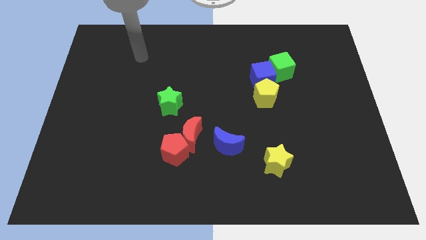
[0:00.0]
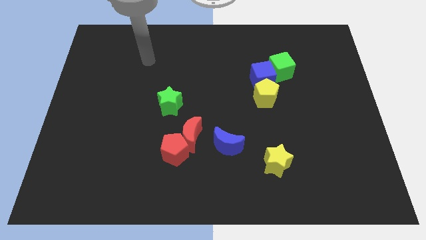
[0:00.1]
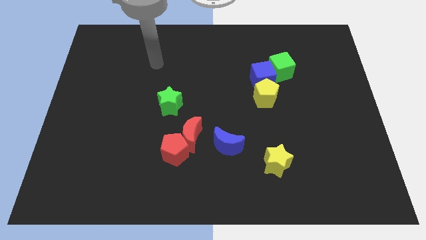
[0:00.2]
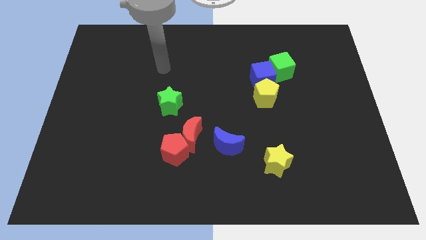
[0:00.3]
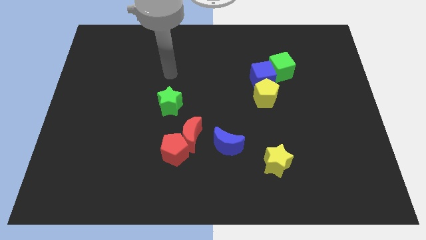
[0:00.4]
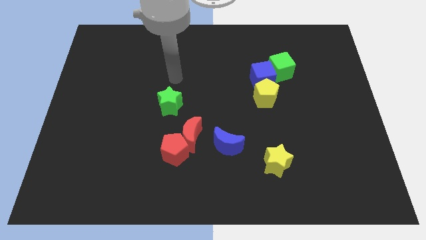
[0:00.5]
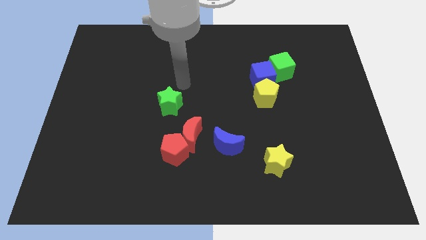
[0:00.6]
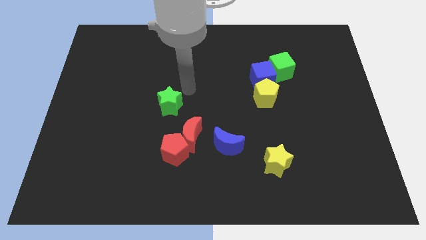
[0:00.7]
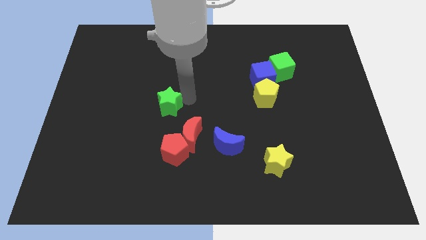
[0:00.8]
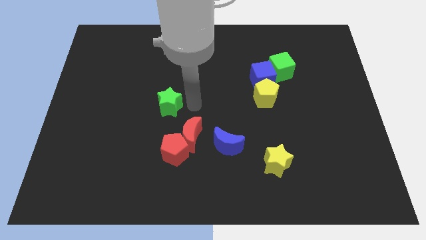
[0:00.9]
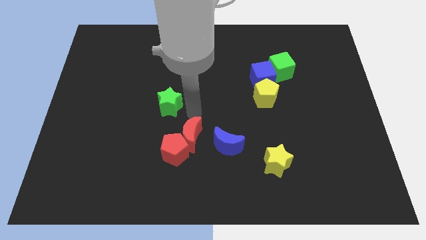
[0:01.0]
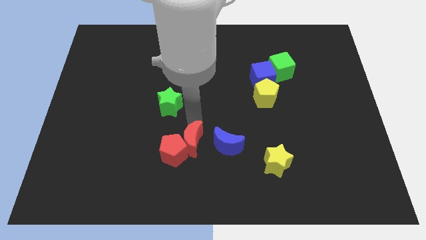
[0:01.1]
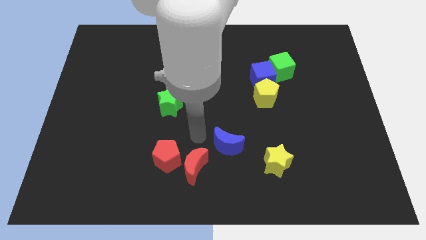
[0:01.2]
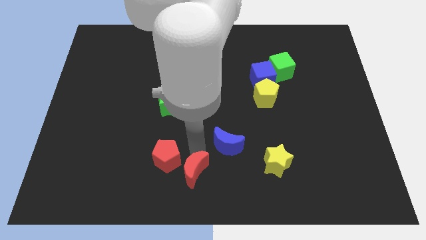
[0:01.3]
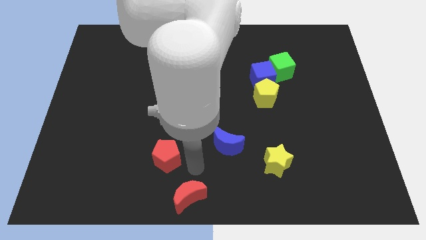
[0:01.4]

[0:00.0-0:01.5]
separate the red pentagon from the red moon

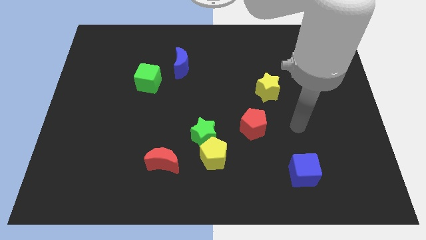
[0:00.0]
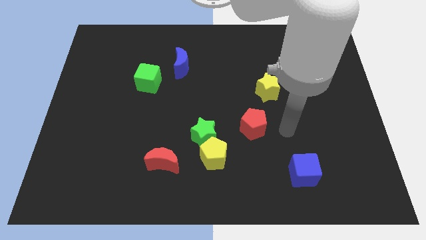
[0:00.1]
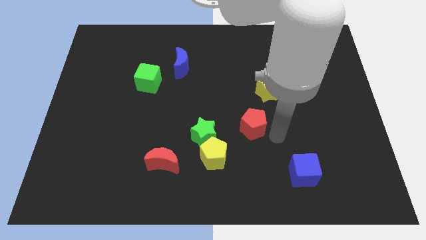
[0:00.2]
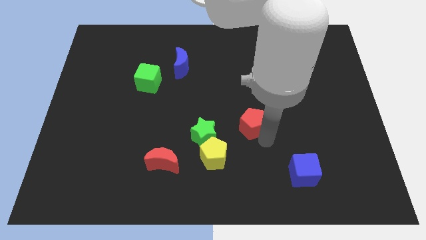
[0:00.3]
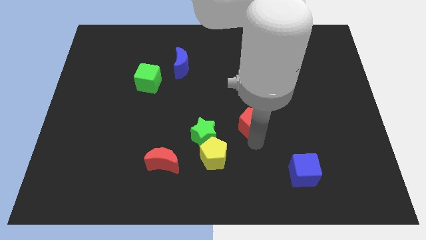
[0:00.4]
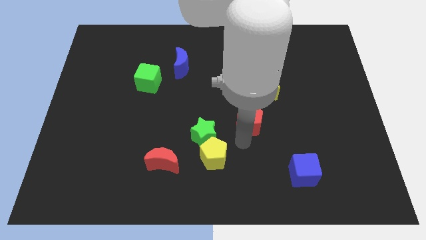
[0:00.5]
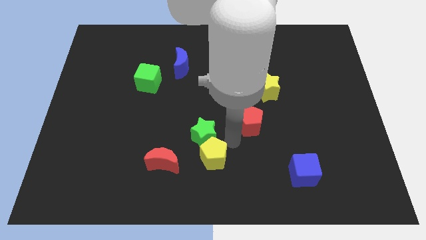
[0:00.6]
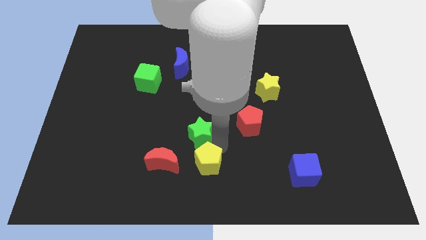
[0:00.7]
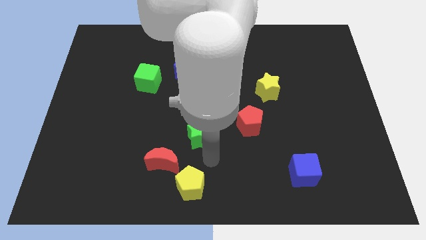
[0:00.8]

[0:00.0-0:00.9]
move the green star away from the yellow pentagon

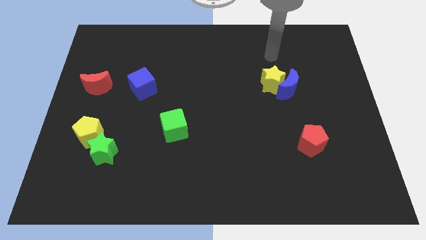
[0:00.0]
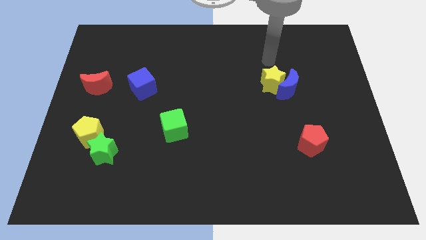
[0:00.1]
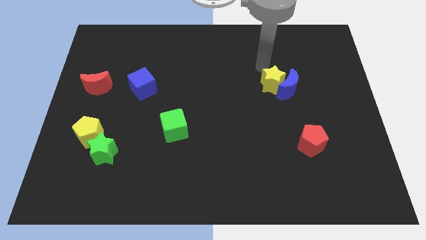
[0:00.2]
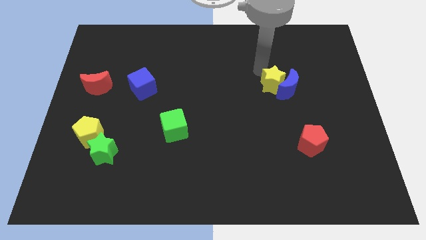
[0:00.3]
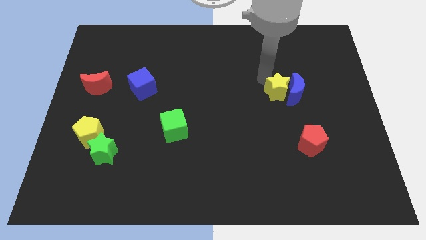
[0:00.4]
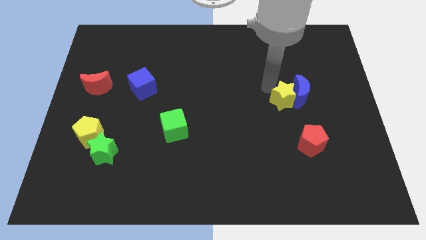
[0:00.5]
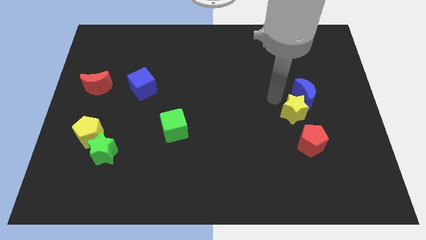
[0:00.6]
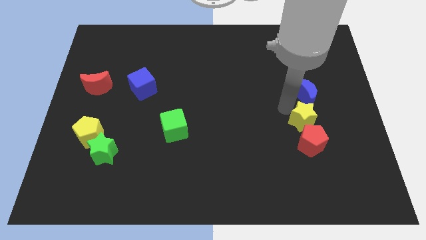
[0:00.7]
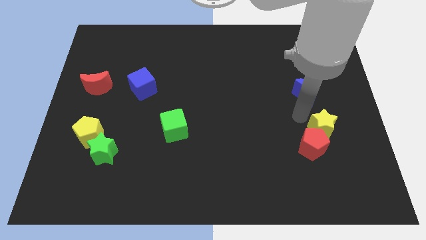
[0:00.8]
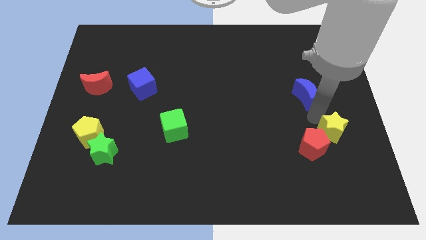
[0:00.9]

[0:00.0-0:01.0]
pull the blue moon apart from the yellow star

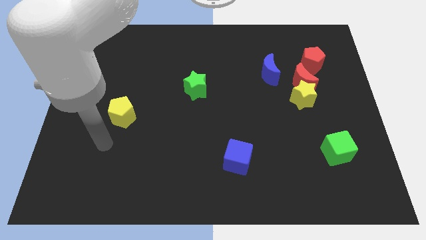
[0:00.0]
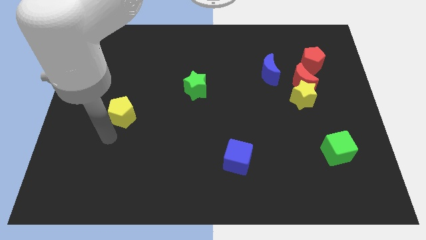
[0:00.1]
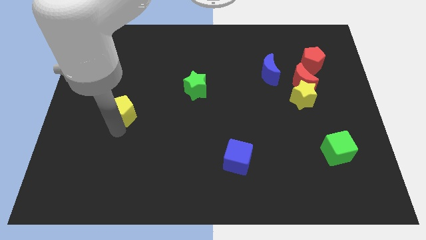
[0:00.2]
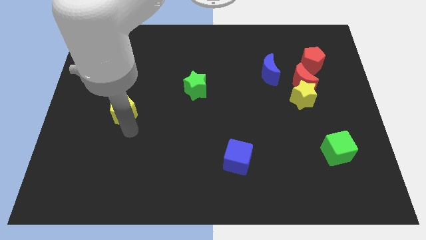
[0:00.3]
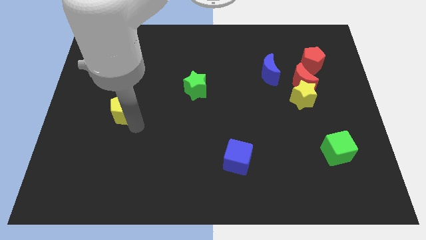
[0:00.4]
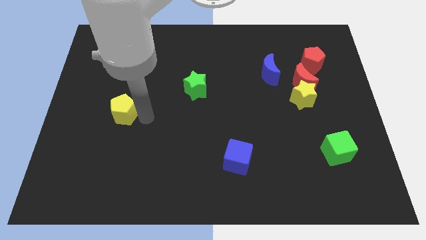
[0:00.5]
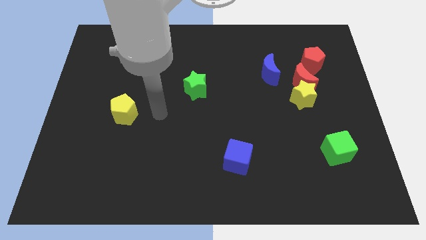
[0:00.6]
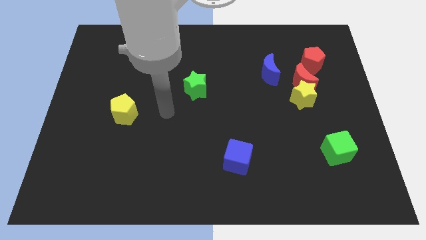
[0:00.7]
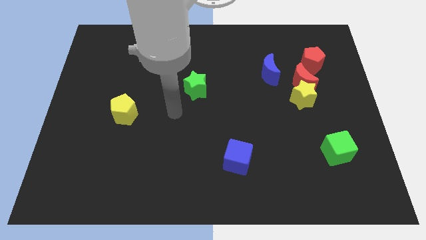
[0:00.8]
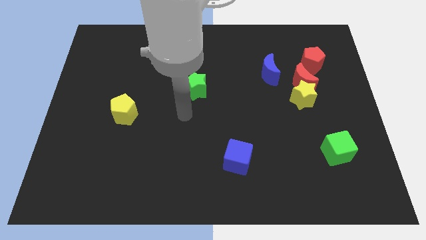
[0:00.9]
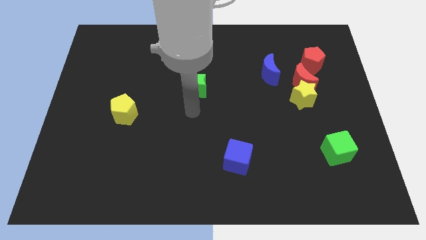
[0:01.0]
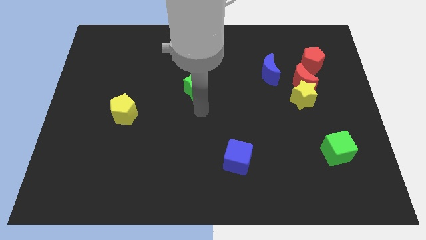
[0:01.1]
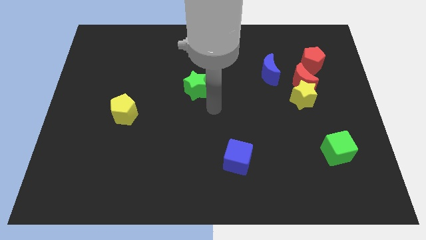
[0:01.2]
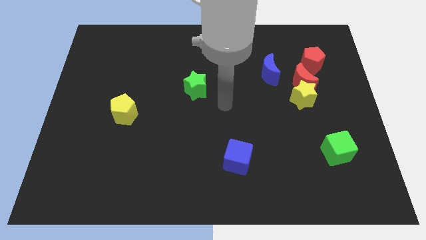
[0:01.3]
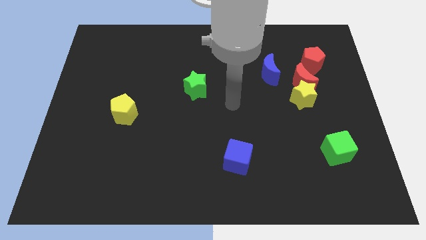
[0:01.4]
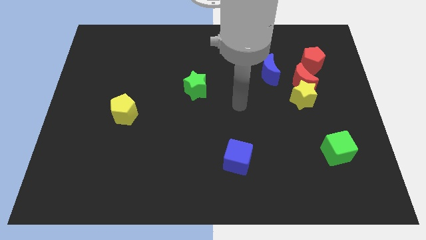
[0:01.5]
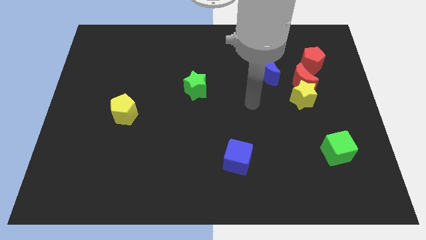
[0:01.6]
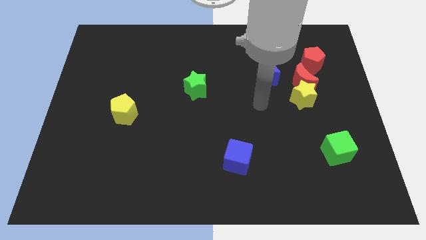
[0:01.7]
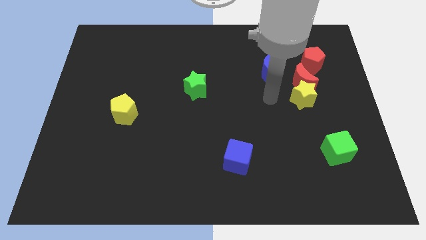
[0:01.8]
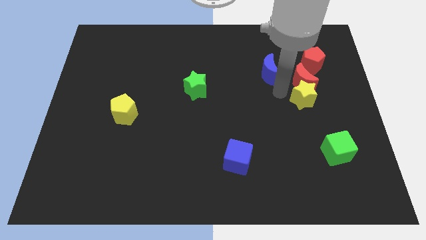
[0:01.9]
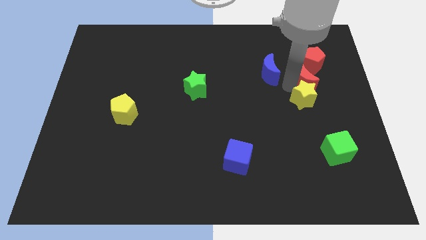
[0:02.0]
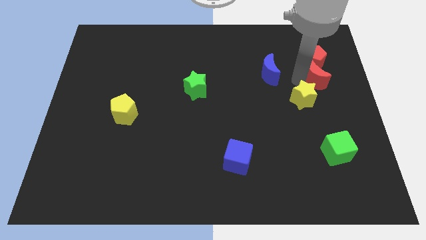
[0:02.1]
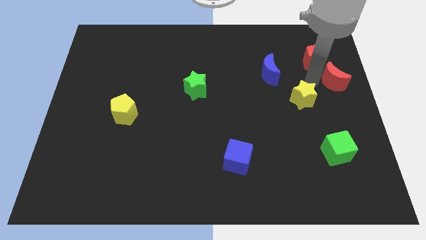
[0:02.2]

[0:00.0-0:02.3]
separate the yellow star from the red moon

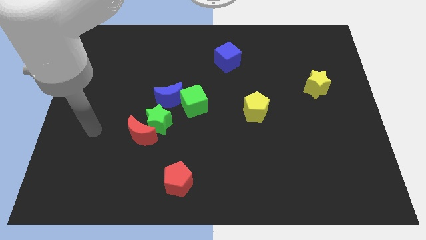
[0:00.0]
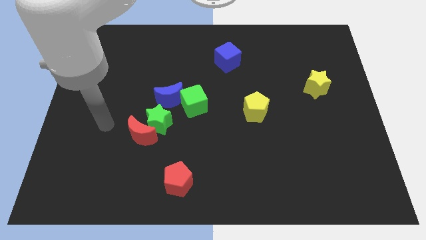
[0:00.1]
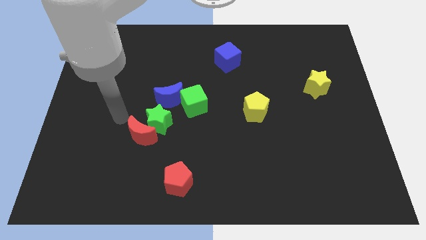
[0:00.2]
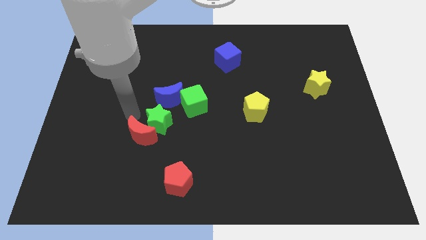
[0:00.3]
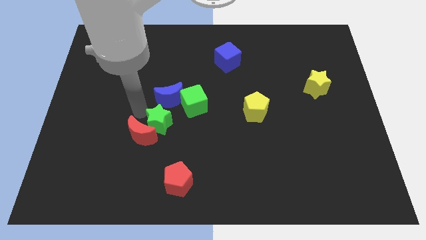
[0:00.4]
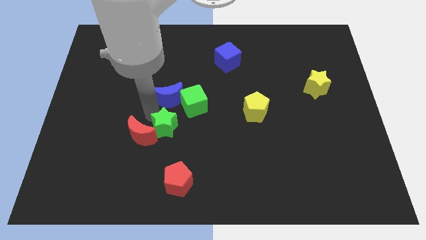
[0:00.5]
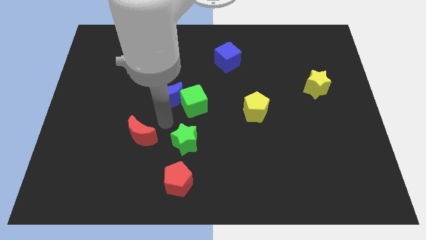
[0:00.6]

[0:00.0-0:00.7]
separate the red moon from the green star

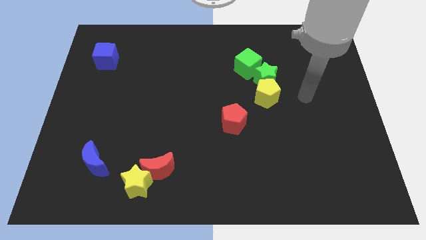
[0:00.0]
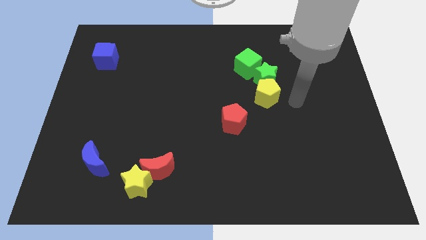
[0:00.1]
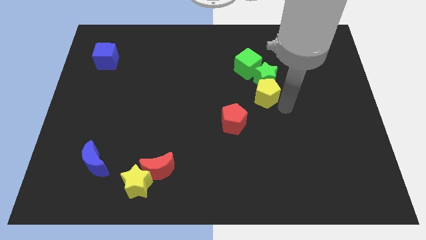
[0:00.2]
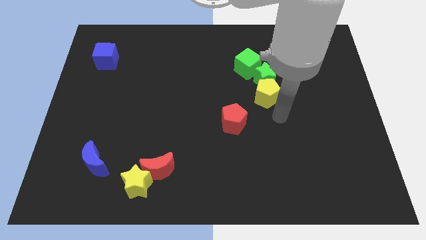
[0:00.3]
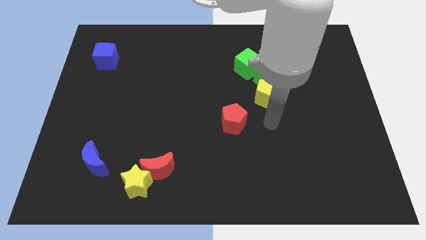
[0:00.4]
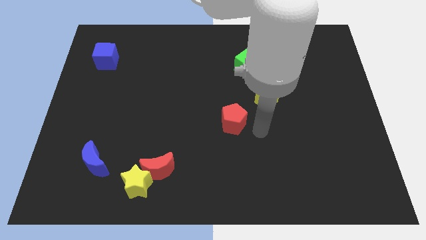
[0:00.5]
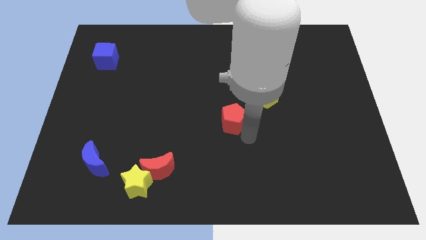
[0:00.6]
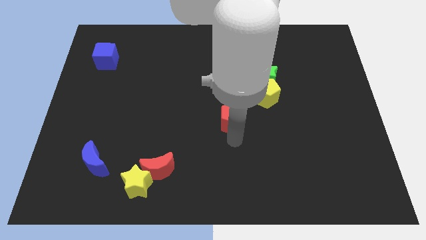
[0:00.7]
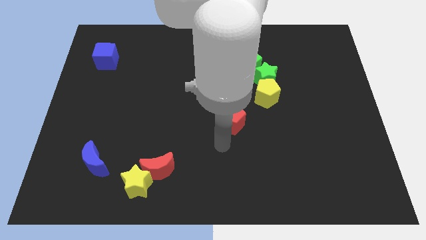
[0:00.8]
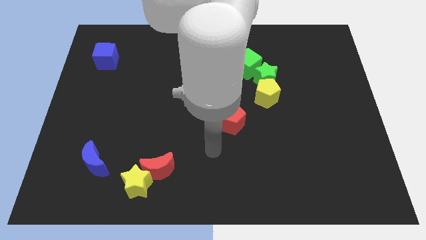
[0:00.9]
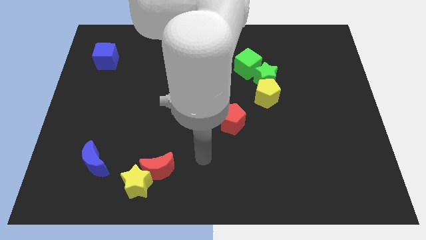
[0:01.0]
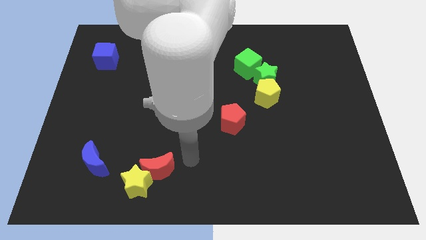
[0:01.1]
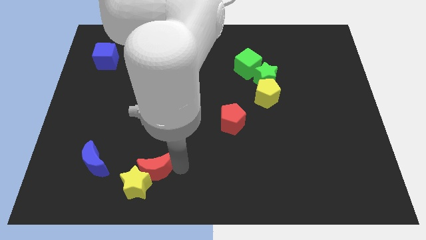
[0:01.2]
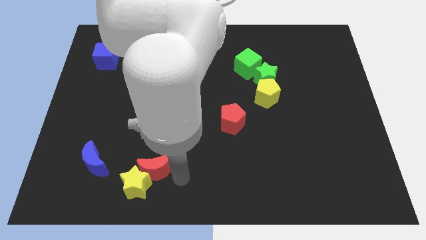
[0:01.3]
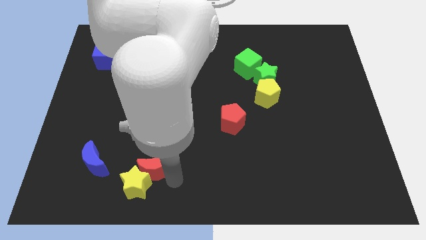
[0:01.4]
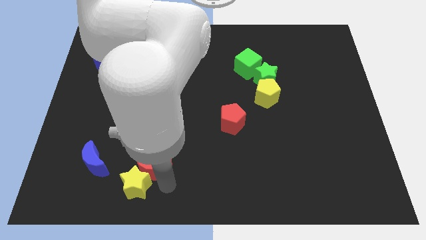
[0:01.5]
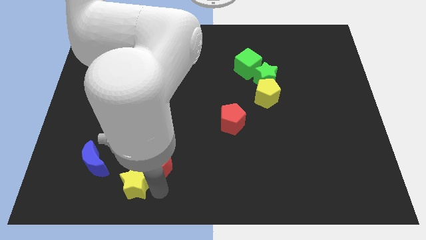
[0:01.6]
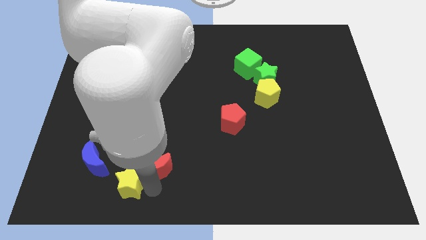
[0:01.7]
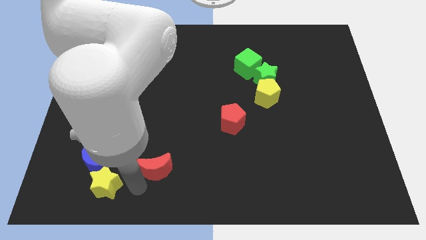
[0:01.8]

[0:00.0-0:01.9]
separate the red moon from the yellow star

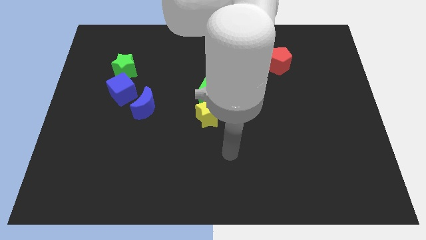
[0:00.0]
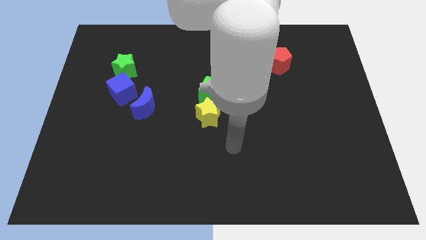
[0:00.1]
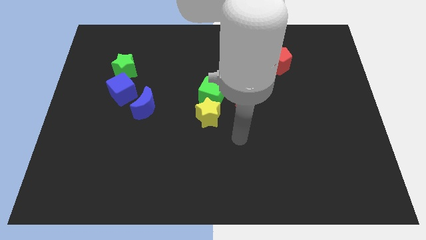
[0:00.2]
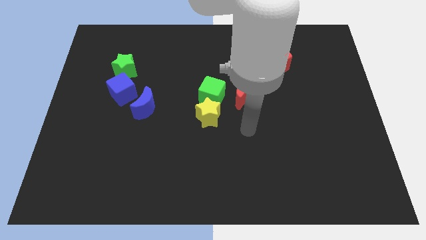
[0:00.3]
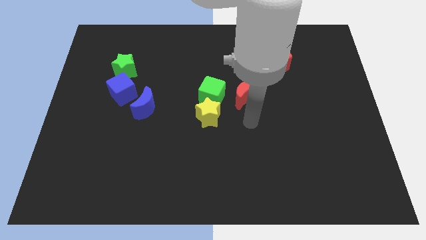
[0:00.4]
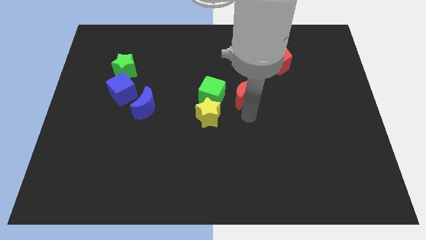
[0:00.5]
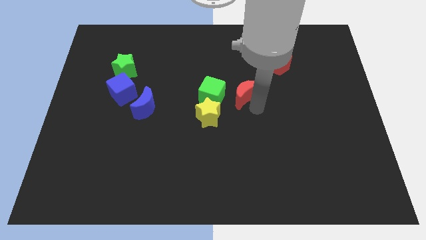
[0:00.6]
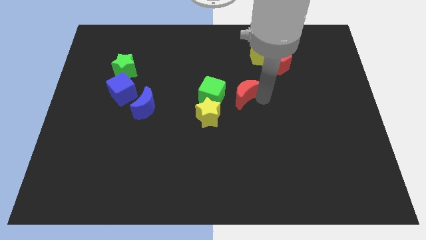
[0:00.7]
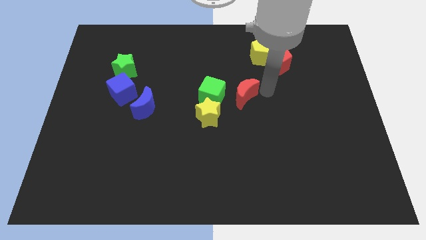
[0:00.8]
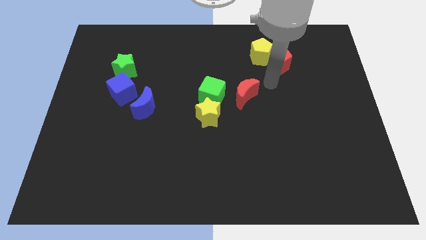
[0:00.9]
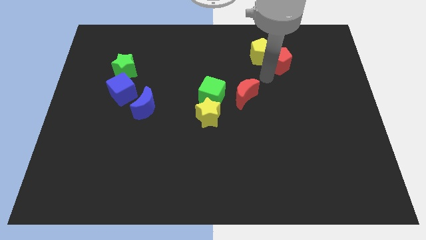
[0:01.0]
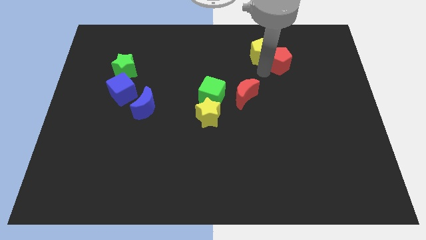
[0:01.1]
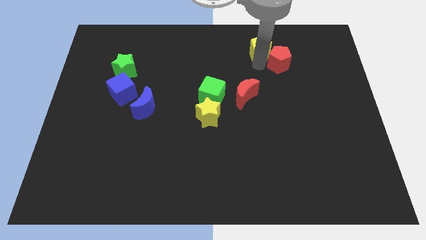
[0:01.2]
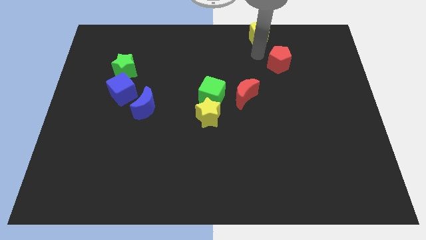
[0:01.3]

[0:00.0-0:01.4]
pull the red pentagon apart from the yellow pentagon
